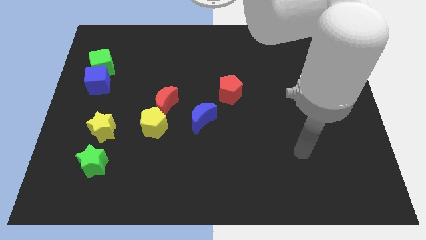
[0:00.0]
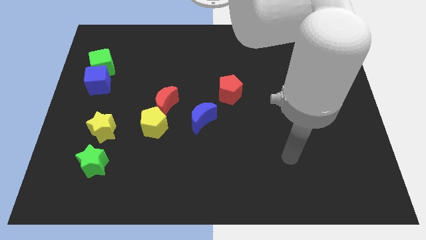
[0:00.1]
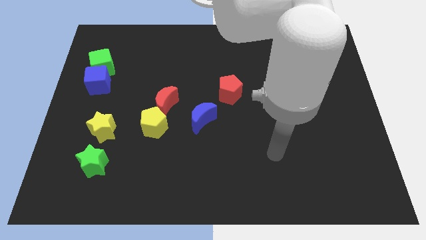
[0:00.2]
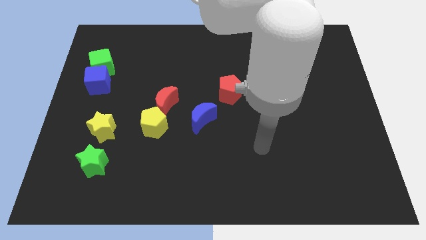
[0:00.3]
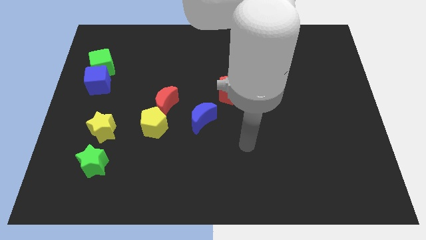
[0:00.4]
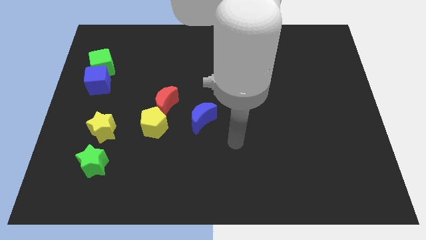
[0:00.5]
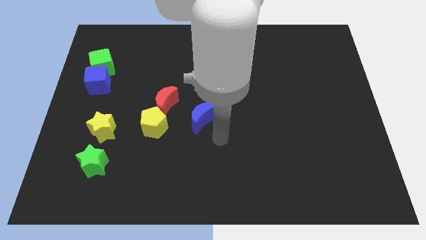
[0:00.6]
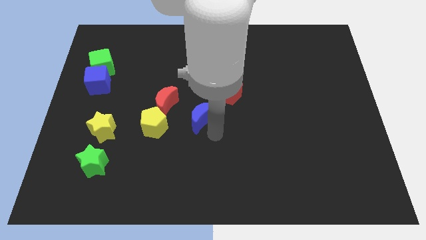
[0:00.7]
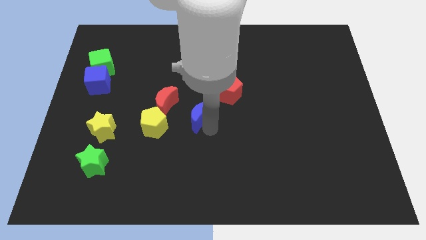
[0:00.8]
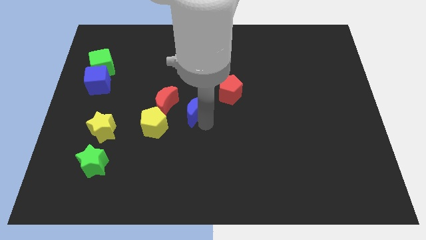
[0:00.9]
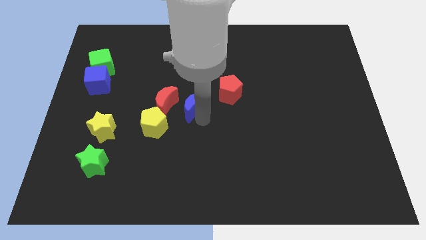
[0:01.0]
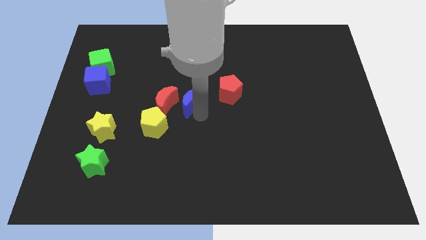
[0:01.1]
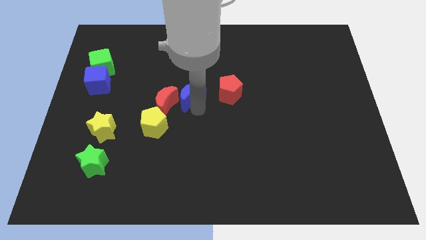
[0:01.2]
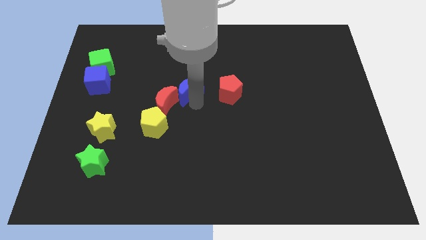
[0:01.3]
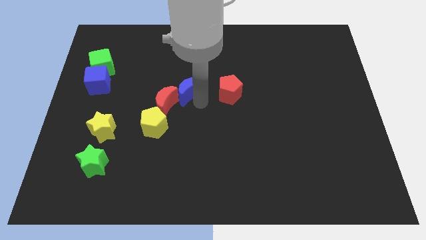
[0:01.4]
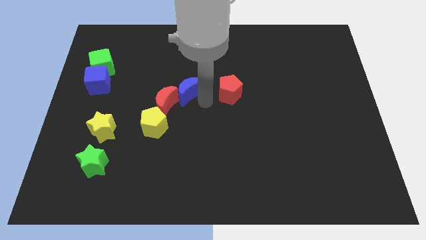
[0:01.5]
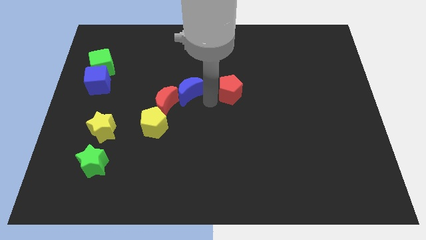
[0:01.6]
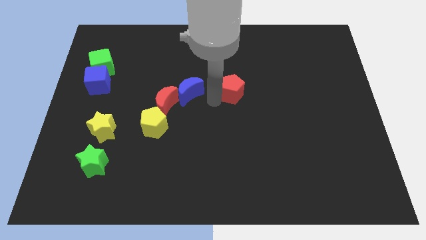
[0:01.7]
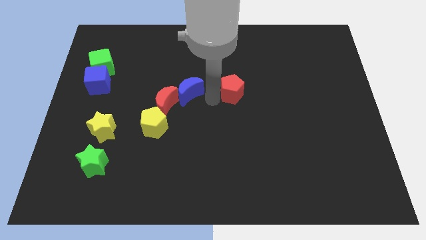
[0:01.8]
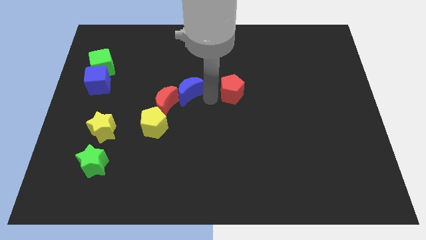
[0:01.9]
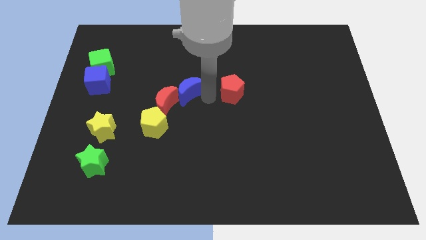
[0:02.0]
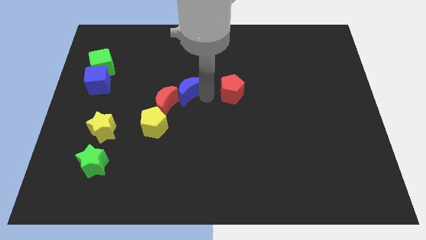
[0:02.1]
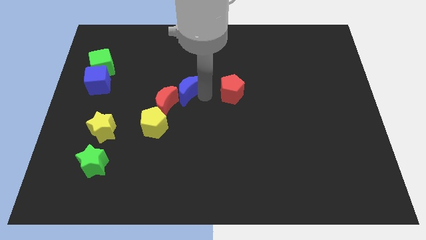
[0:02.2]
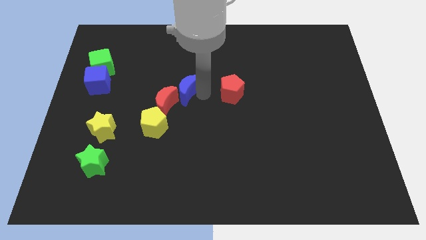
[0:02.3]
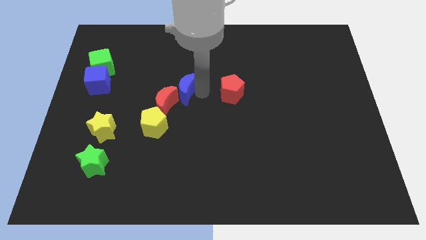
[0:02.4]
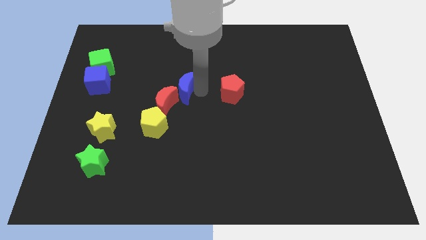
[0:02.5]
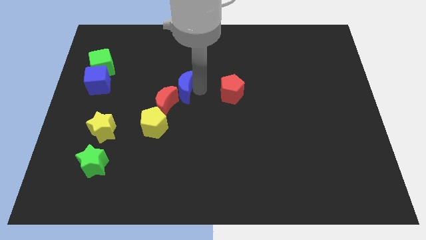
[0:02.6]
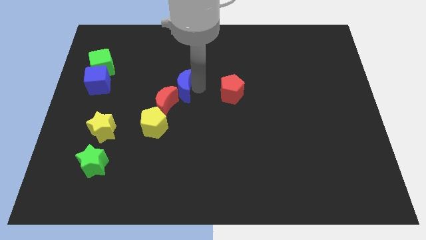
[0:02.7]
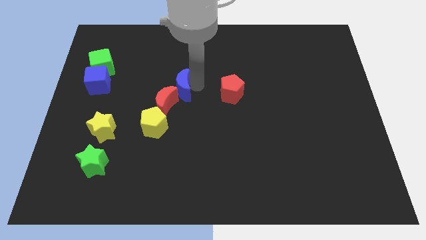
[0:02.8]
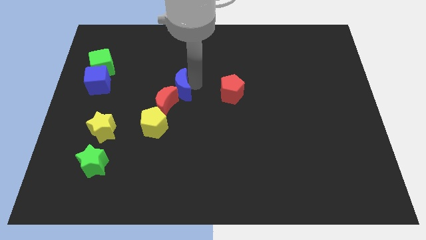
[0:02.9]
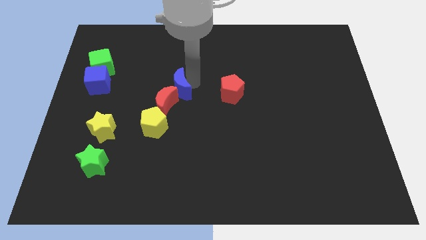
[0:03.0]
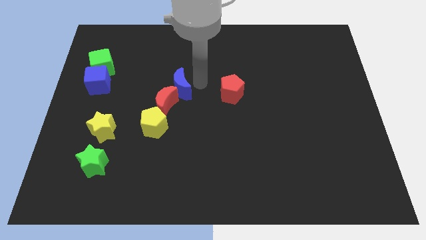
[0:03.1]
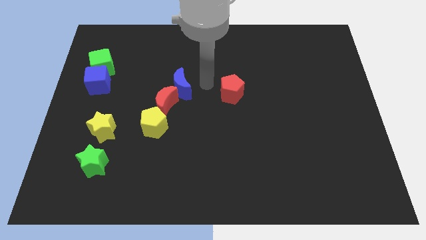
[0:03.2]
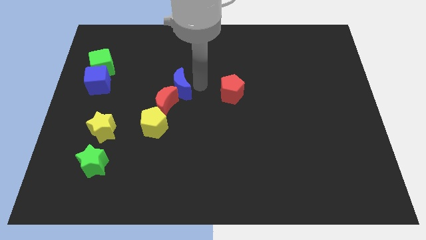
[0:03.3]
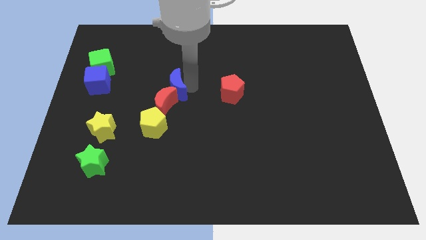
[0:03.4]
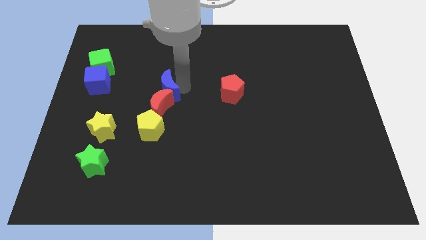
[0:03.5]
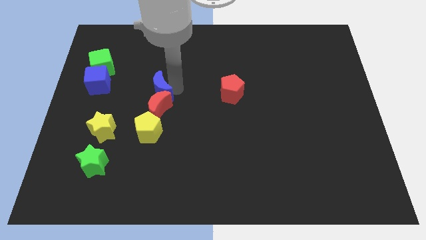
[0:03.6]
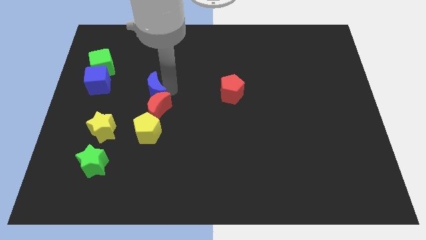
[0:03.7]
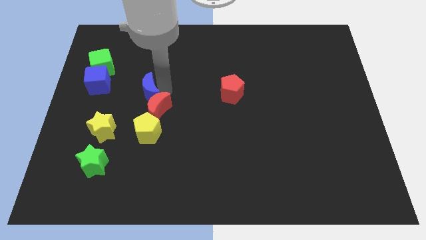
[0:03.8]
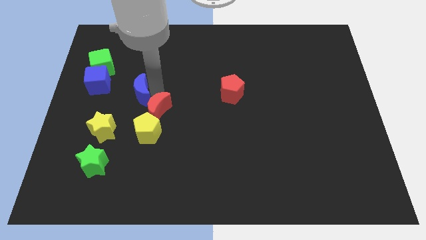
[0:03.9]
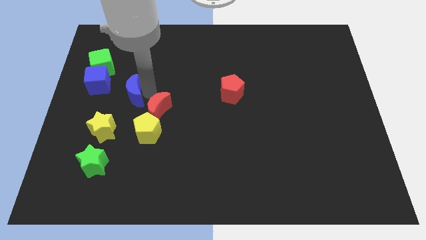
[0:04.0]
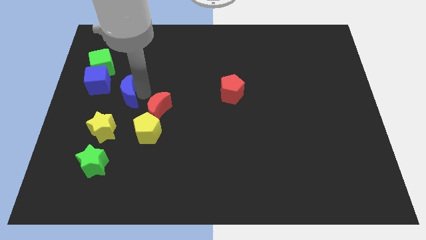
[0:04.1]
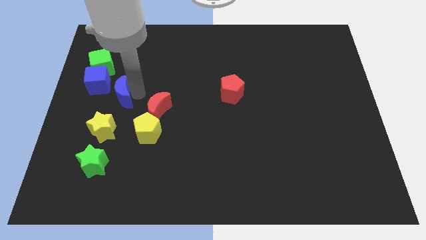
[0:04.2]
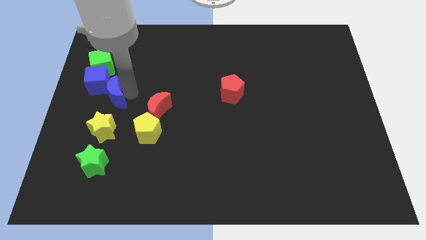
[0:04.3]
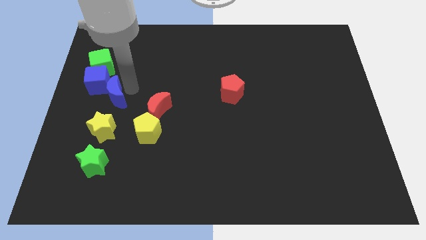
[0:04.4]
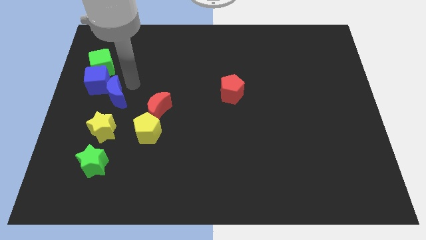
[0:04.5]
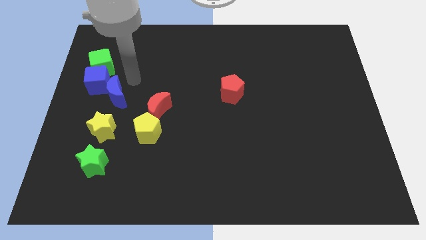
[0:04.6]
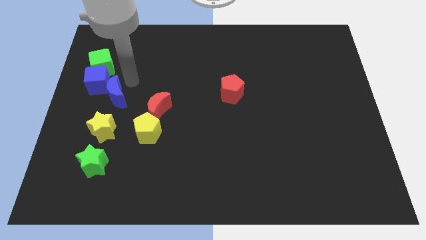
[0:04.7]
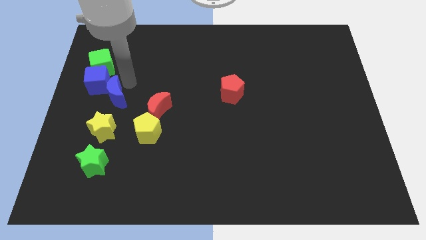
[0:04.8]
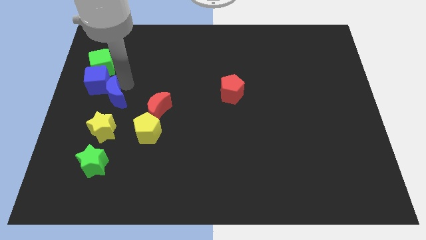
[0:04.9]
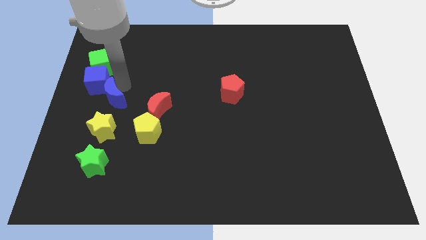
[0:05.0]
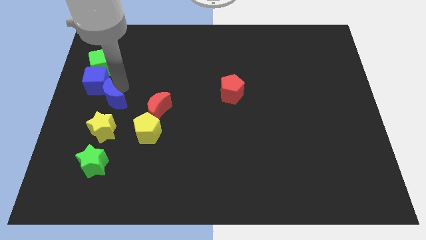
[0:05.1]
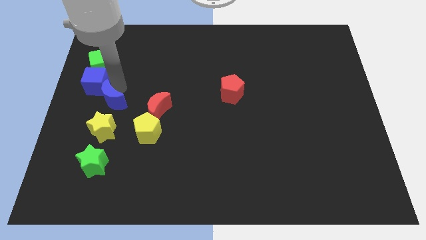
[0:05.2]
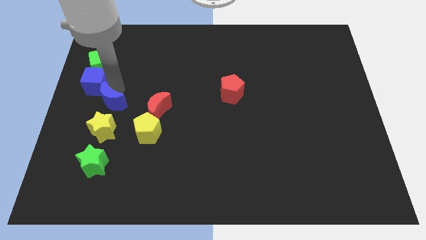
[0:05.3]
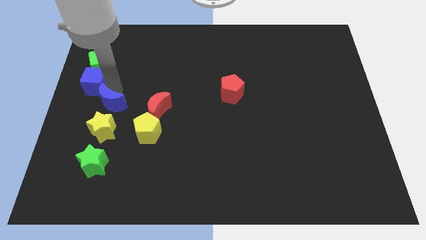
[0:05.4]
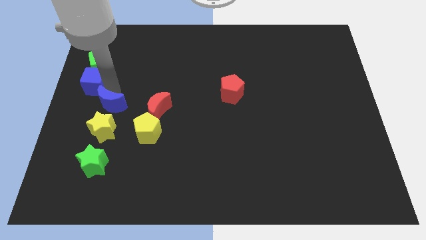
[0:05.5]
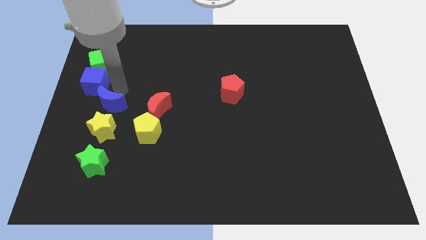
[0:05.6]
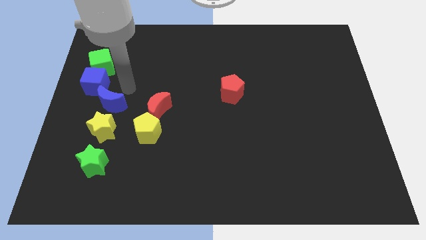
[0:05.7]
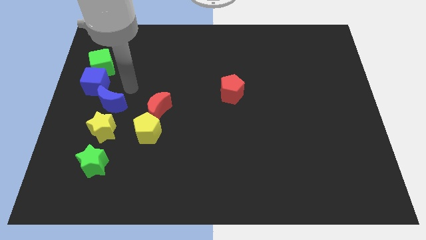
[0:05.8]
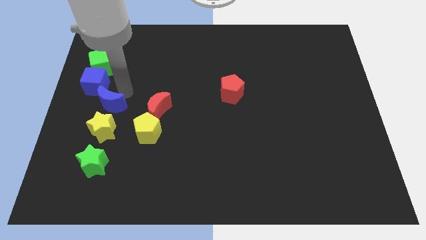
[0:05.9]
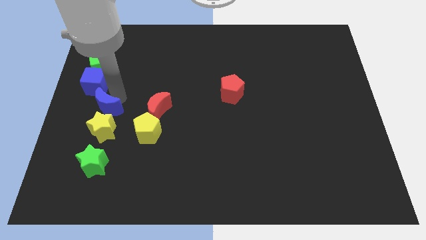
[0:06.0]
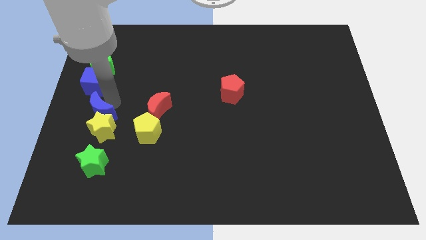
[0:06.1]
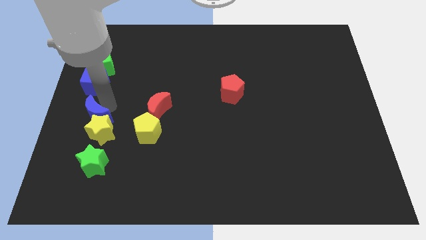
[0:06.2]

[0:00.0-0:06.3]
push the blue moon to the left side of the yellow pentagon

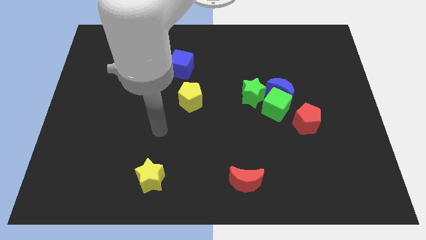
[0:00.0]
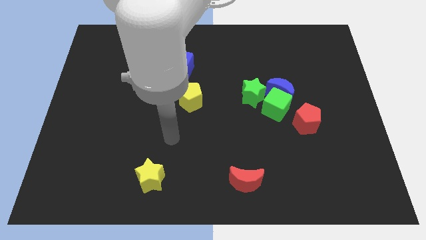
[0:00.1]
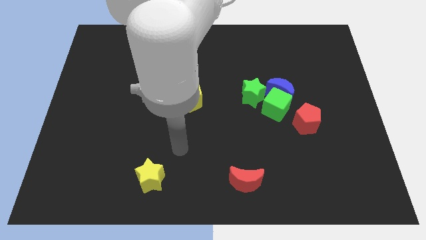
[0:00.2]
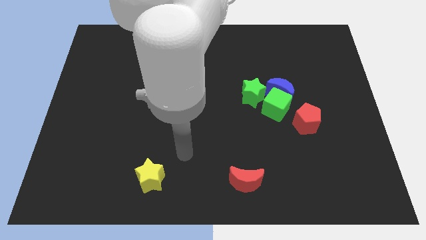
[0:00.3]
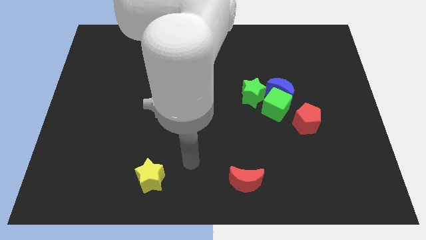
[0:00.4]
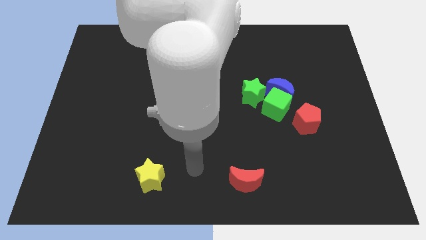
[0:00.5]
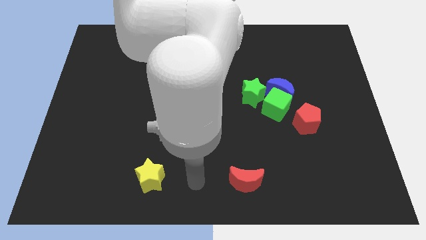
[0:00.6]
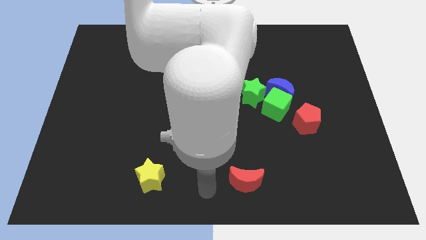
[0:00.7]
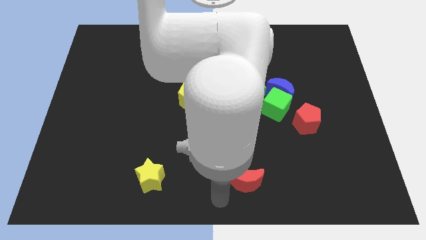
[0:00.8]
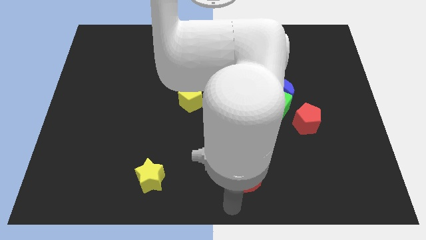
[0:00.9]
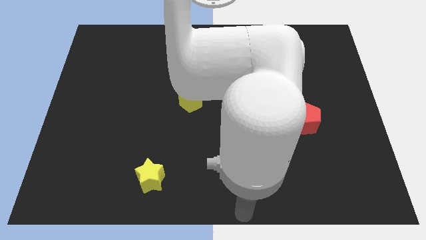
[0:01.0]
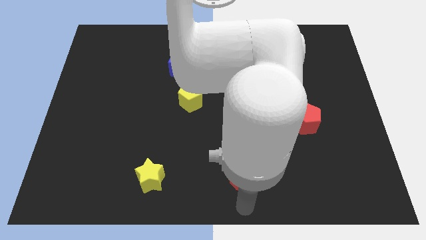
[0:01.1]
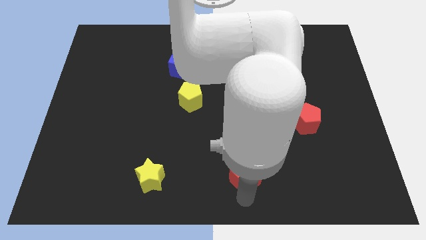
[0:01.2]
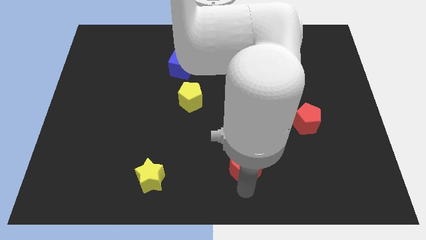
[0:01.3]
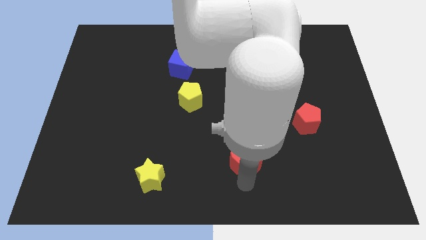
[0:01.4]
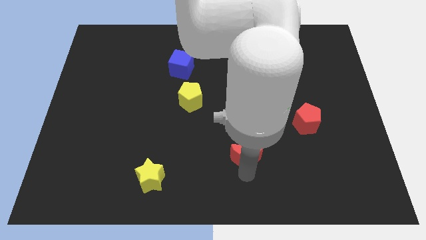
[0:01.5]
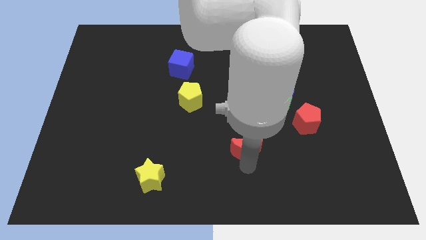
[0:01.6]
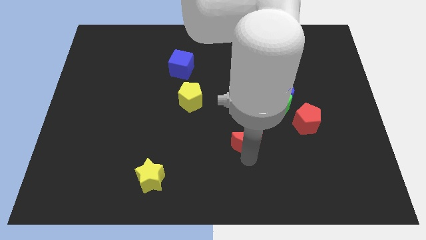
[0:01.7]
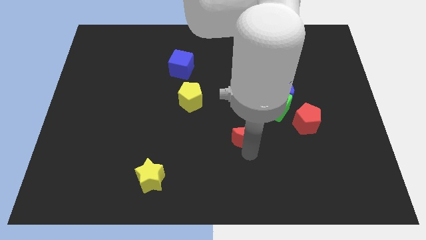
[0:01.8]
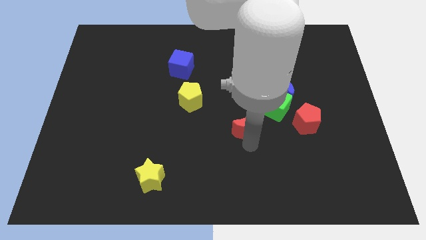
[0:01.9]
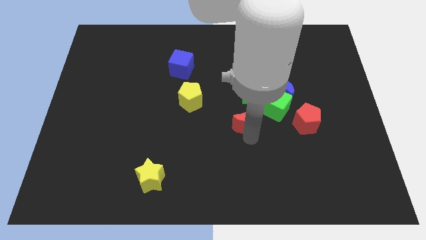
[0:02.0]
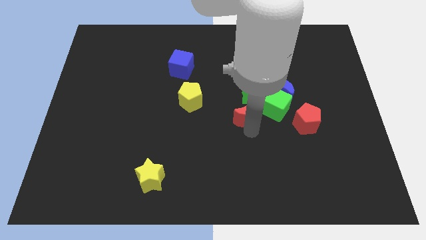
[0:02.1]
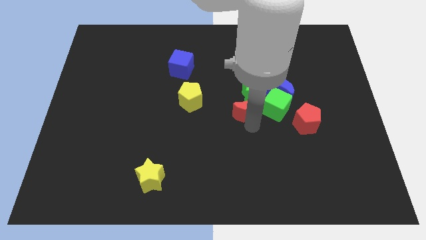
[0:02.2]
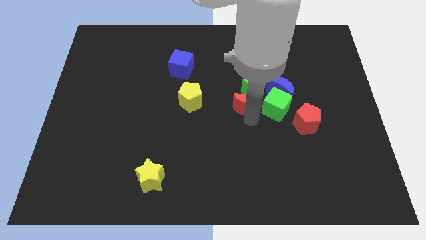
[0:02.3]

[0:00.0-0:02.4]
slide the red moon left of the blue moon
